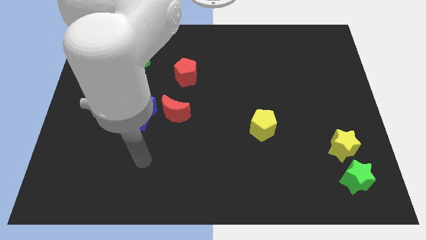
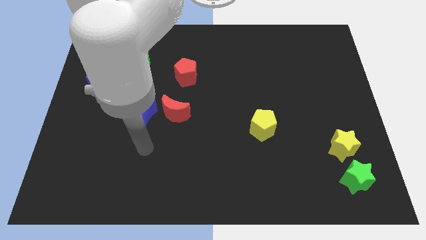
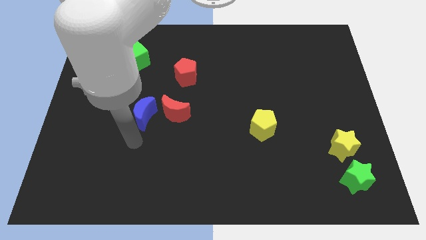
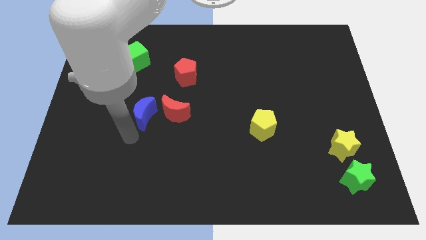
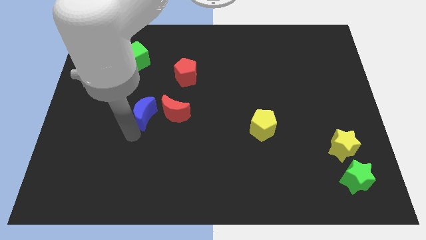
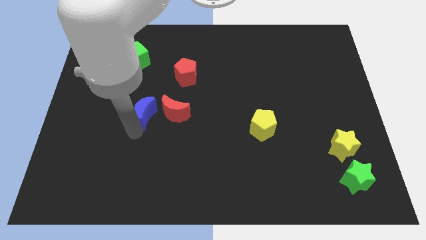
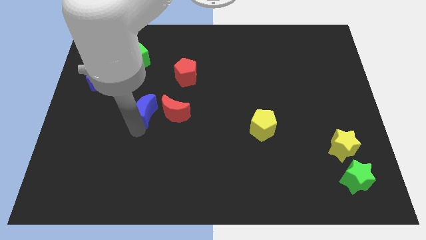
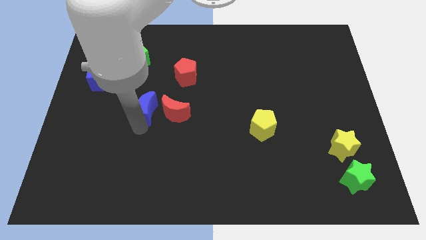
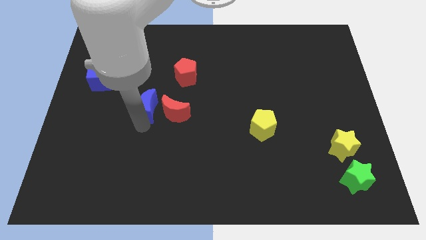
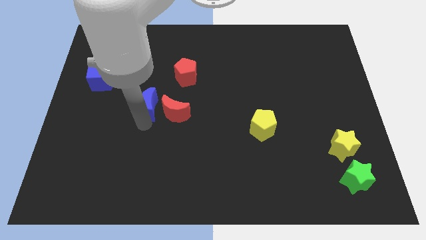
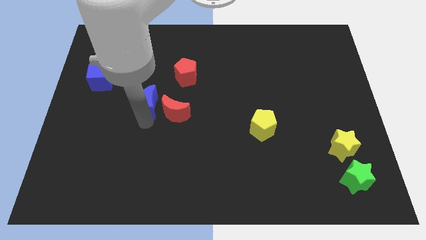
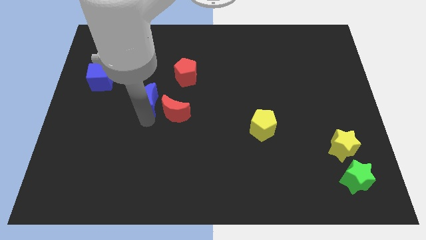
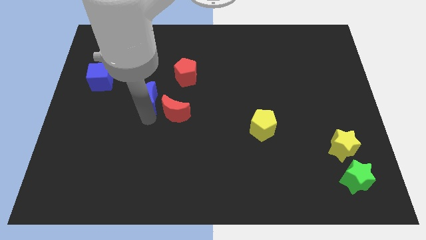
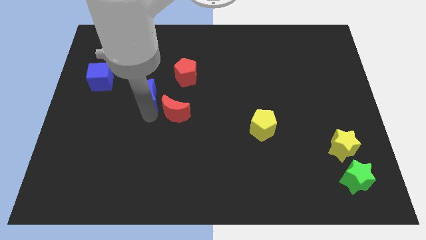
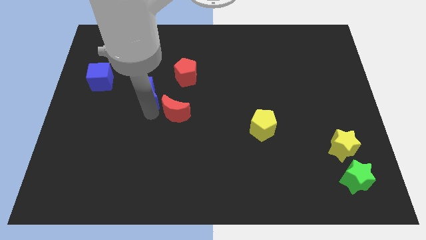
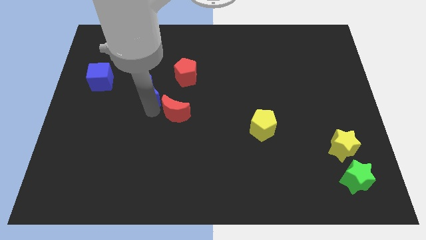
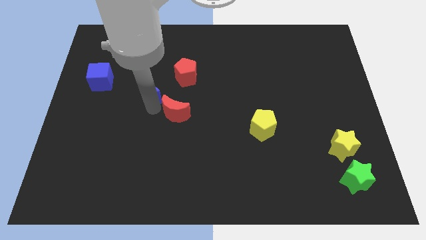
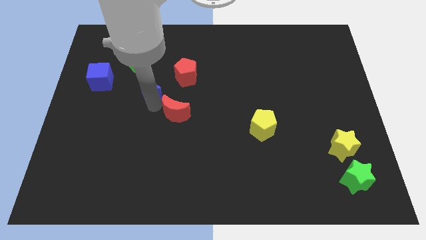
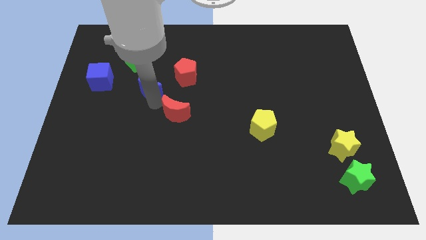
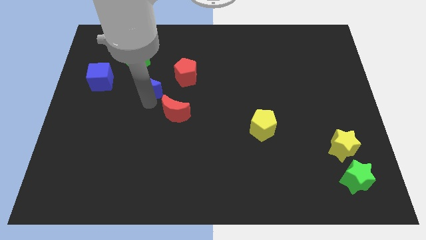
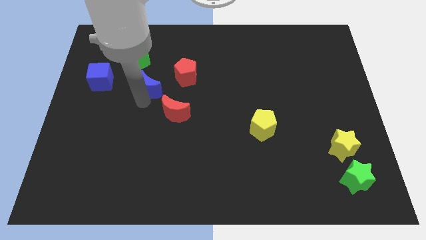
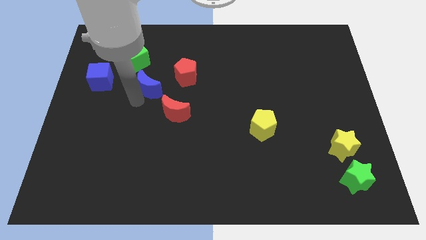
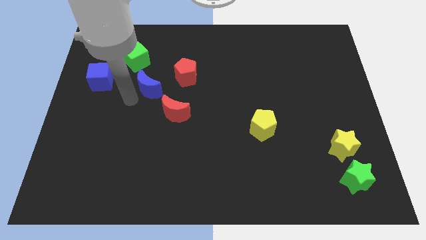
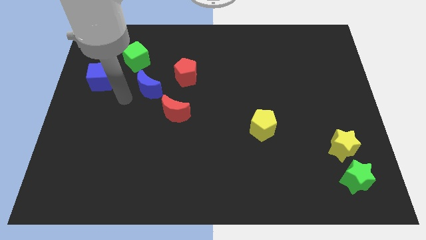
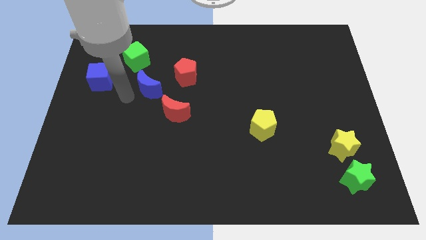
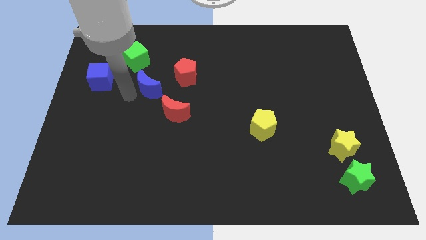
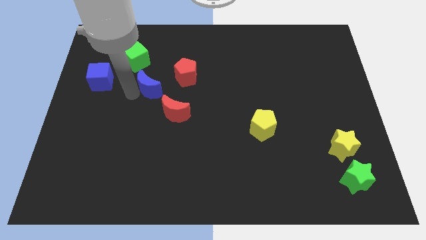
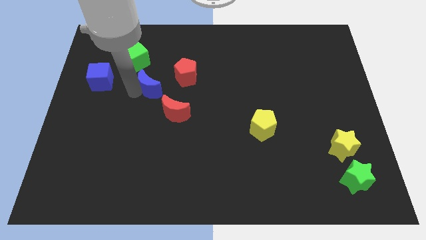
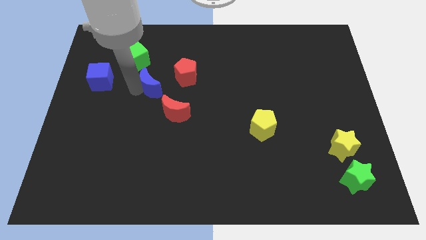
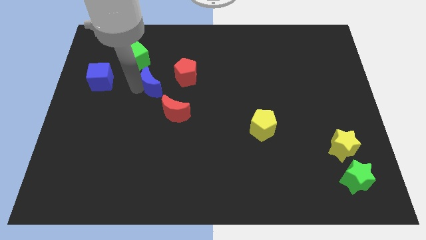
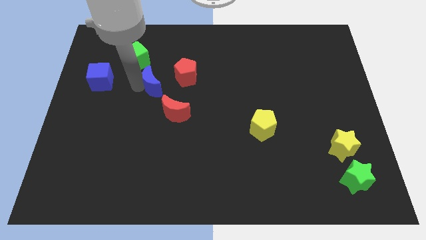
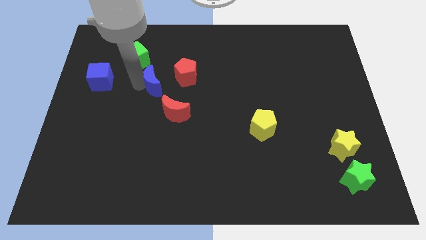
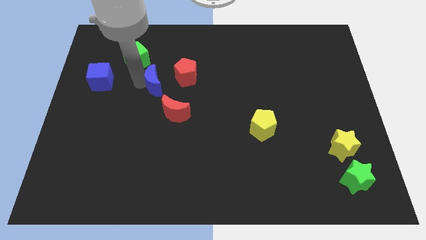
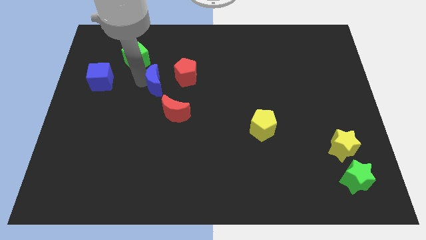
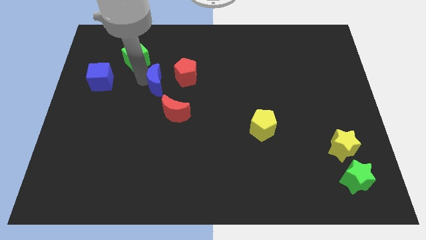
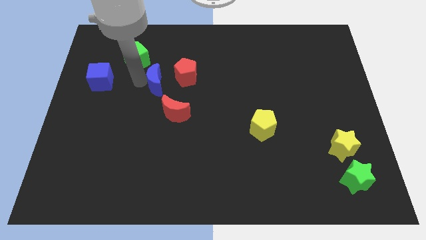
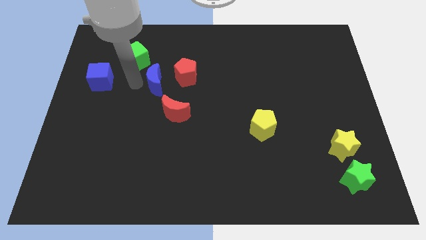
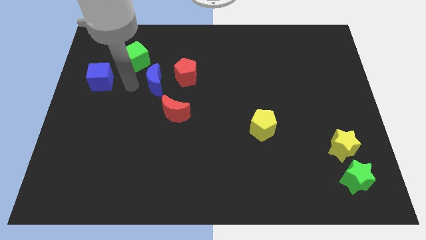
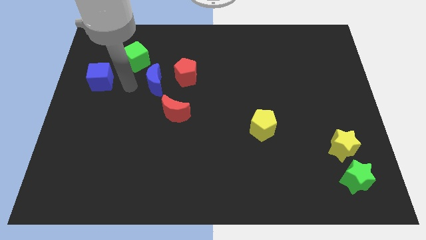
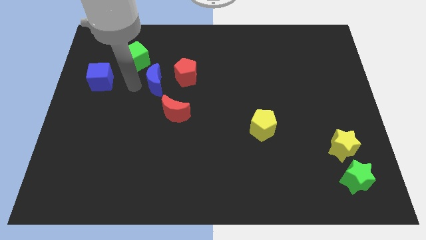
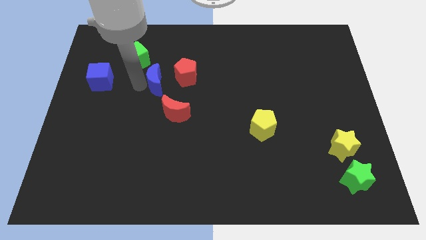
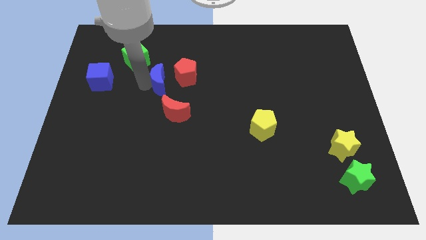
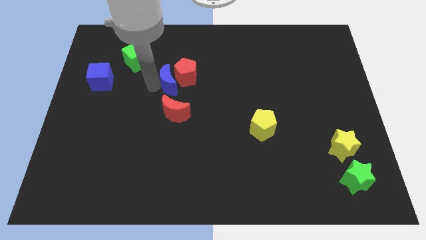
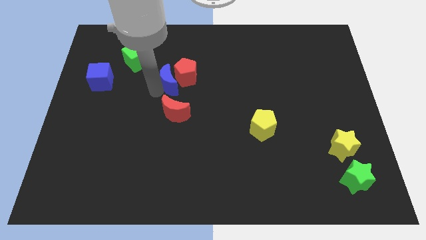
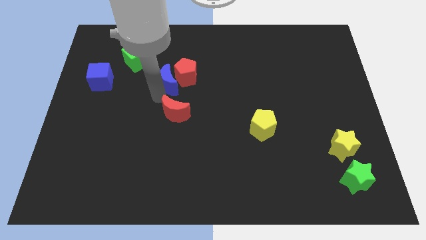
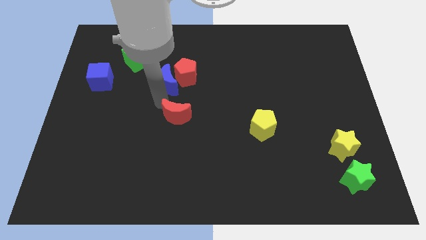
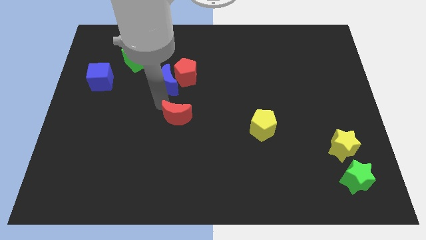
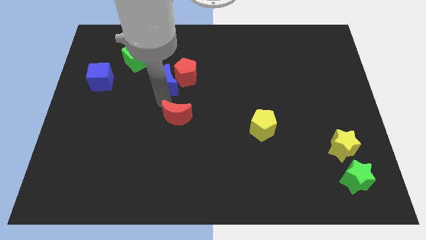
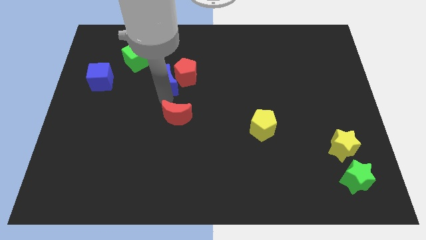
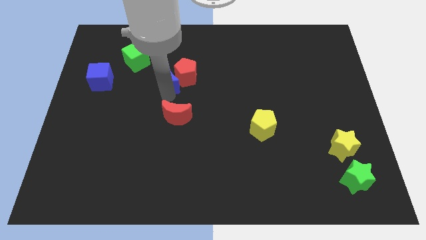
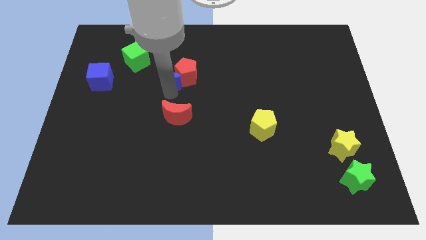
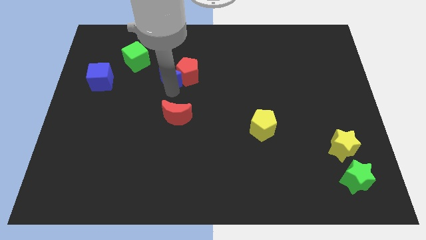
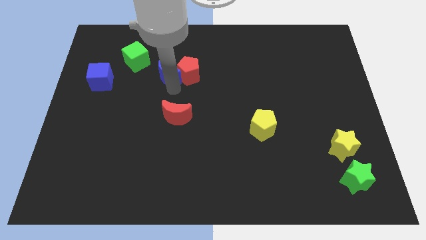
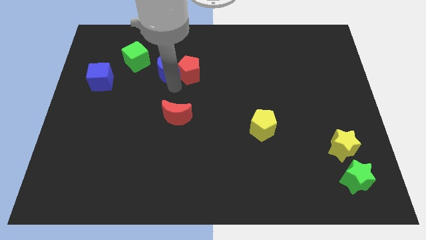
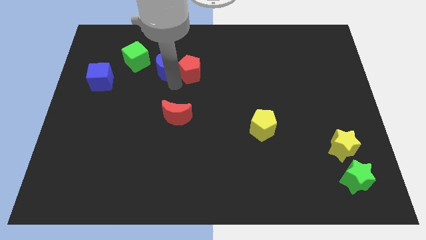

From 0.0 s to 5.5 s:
put the blue moon to the right of the green cube

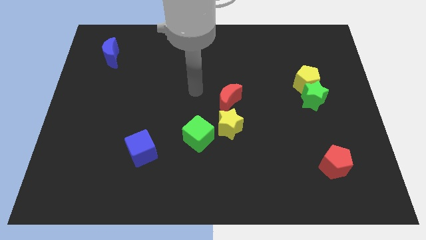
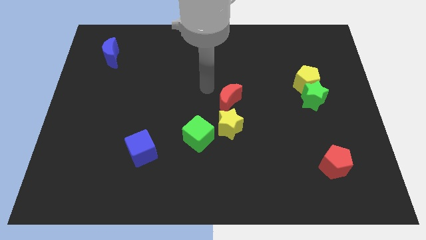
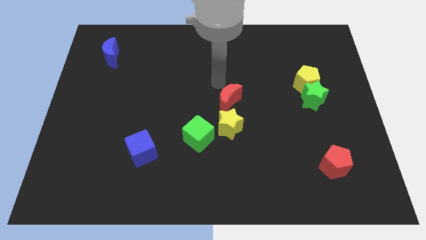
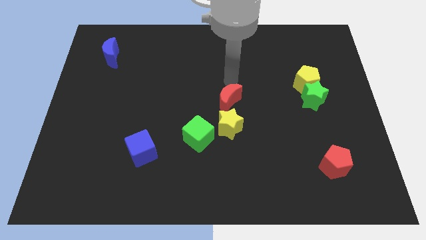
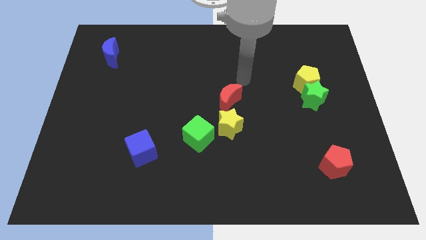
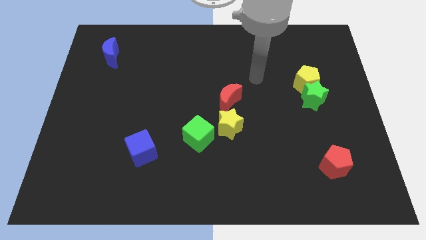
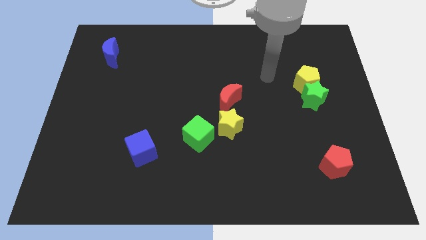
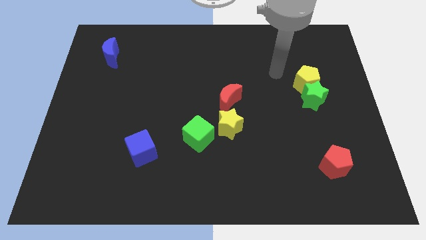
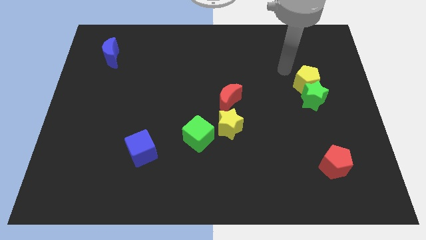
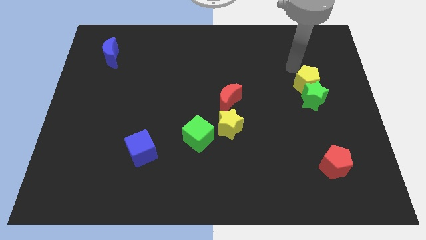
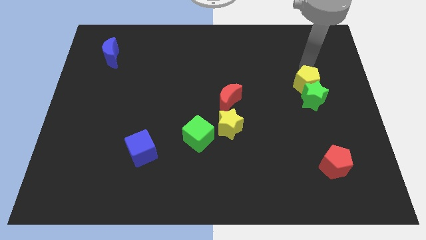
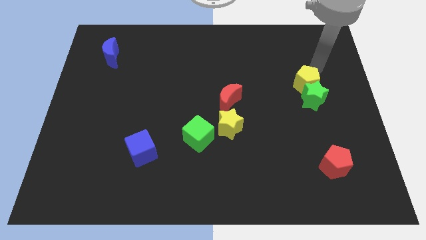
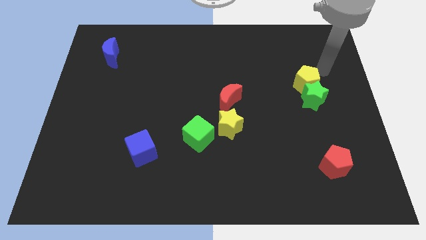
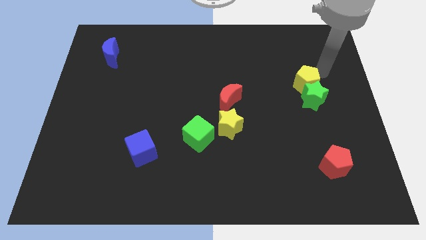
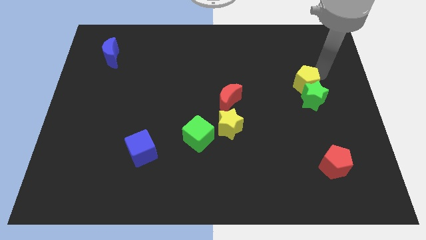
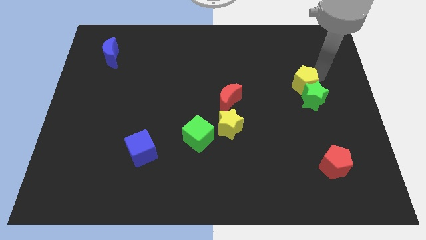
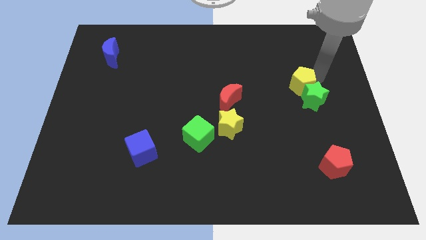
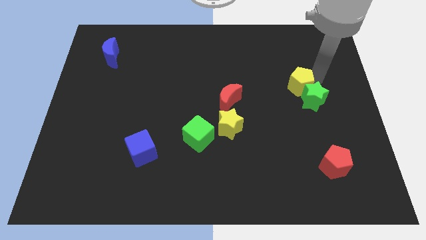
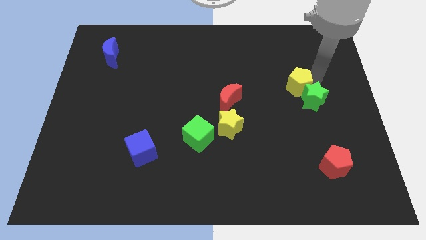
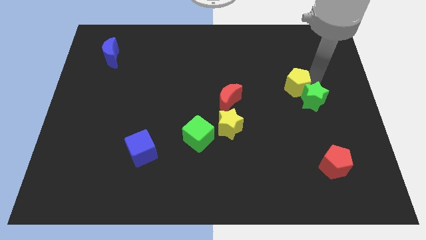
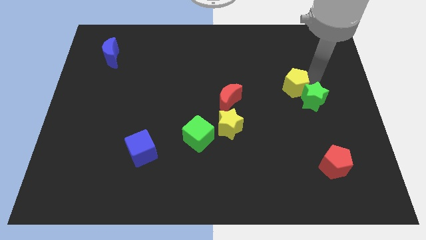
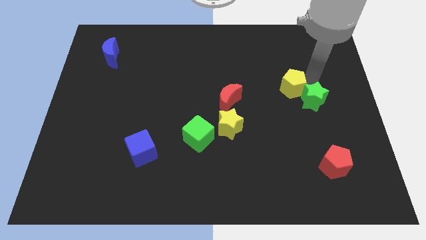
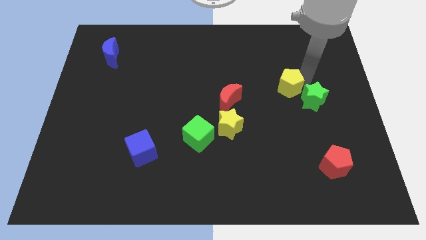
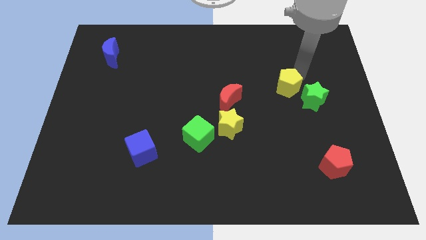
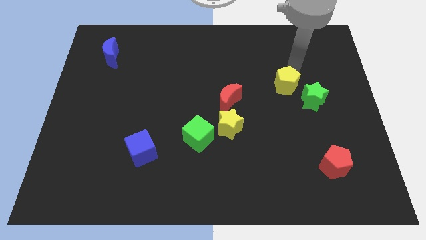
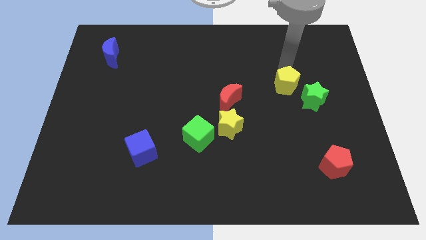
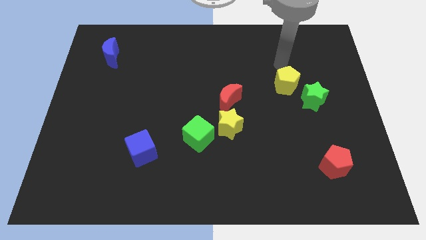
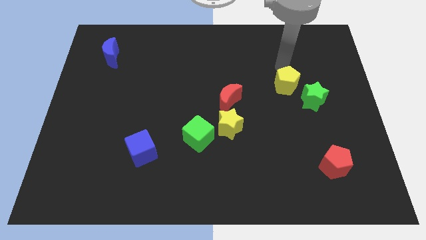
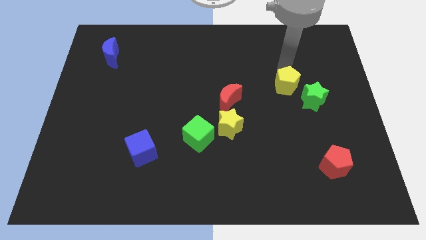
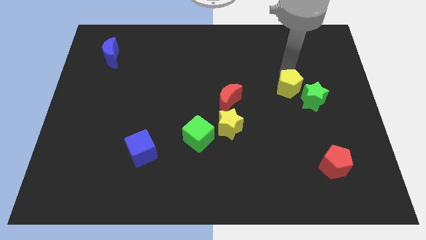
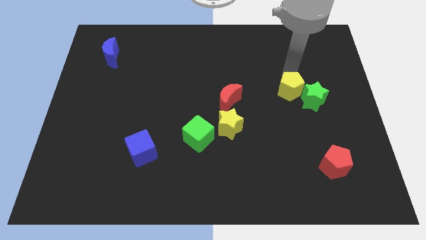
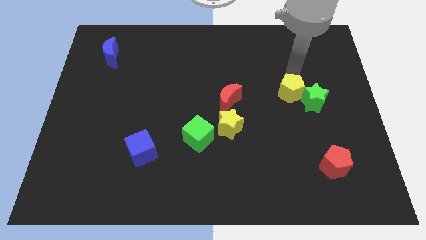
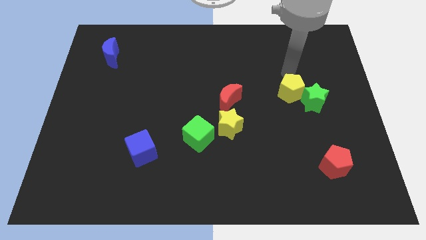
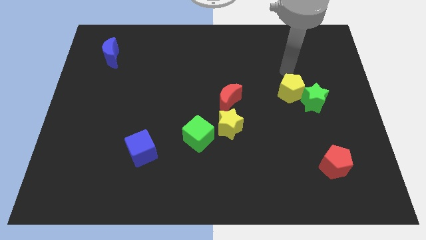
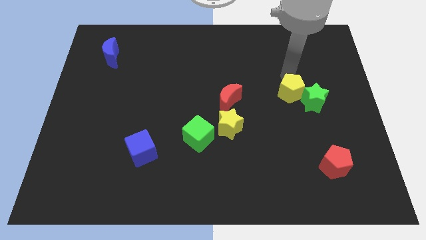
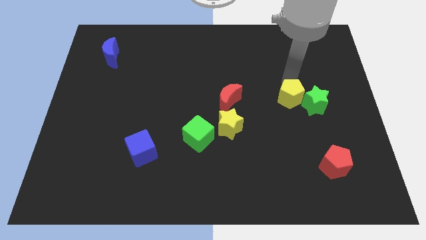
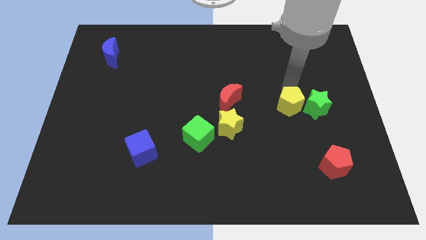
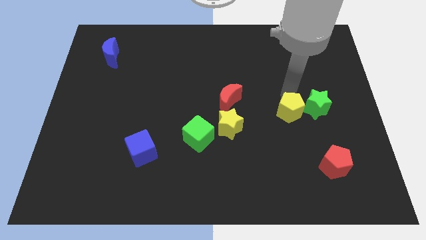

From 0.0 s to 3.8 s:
move the yellow pentagon to the bottom left of the green star
